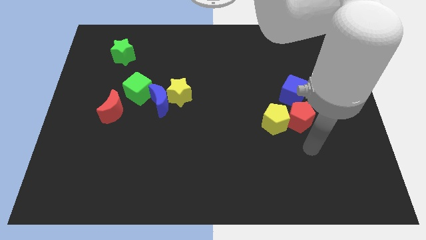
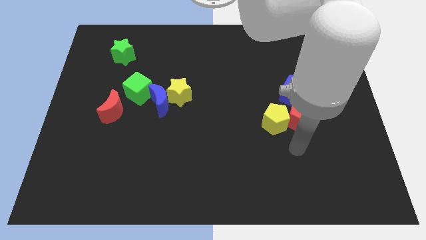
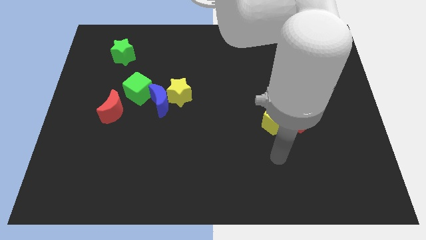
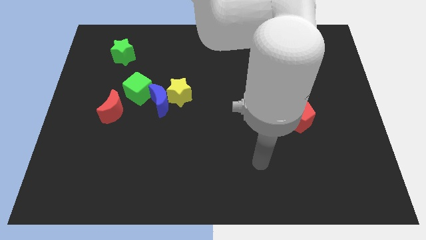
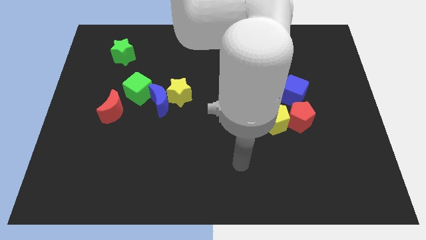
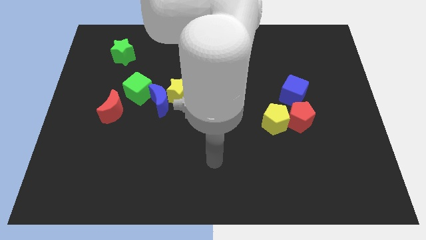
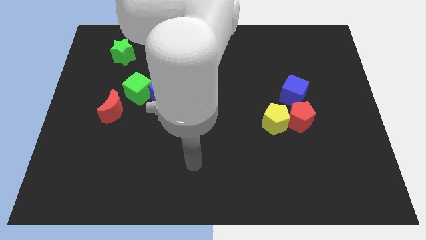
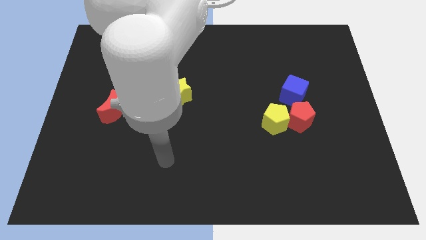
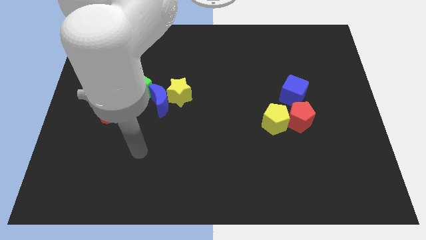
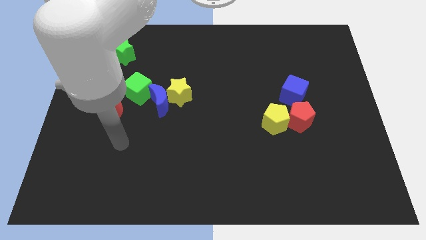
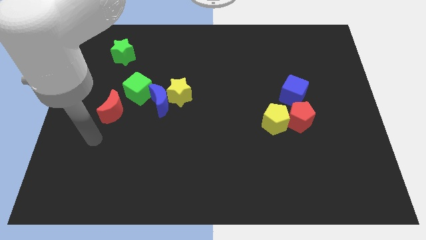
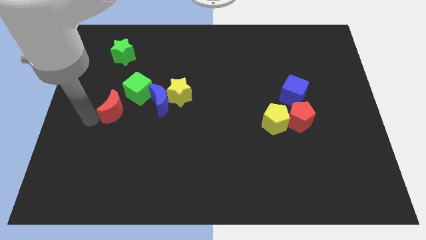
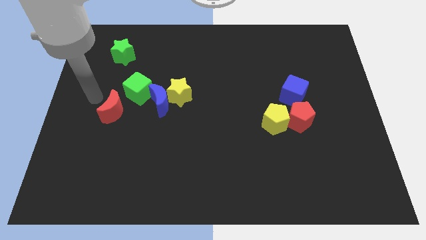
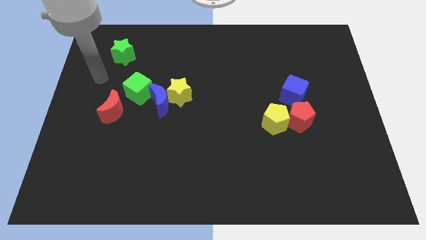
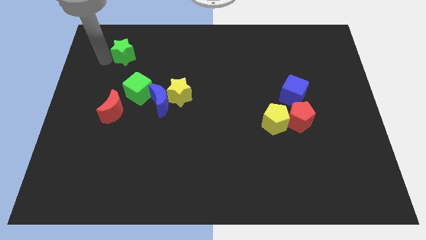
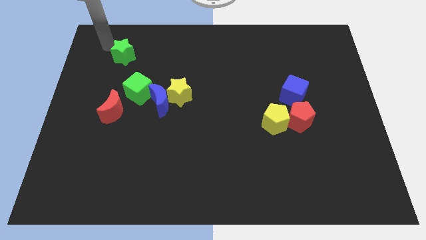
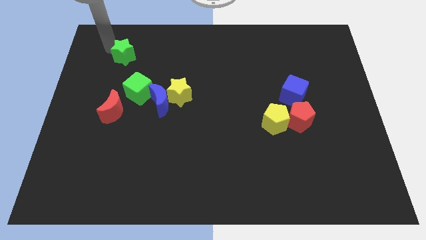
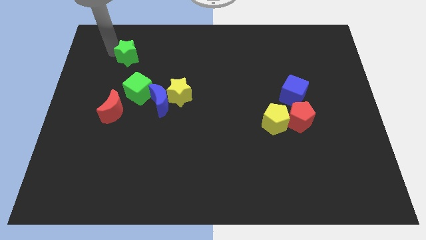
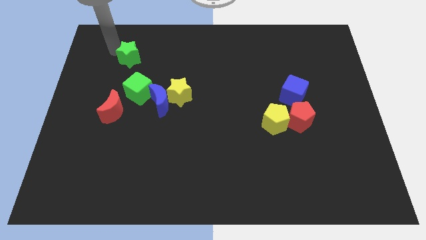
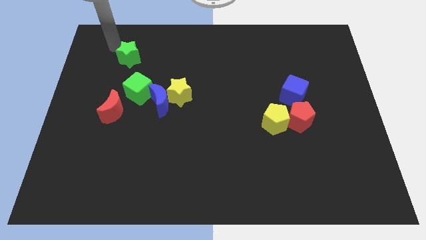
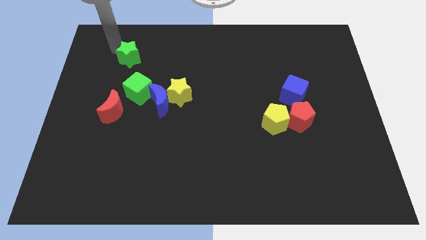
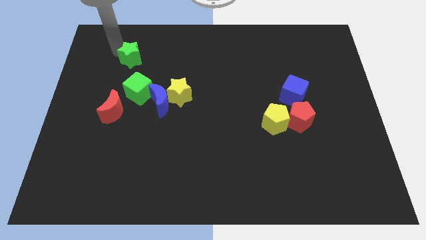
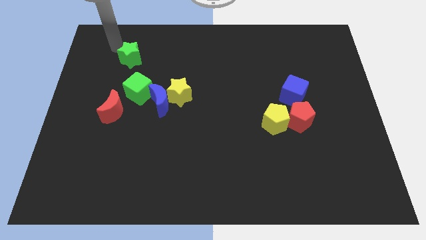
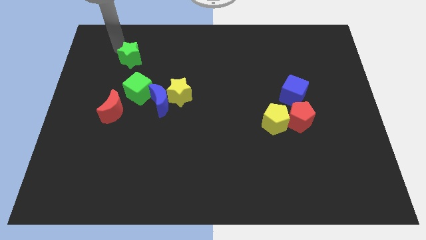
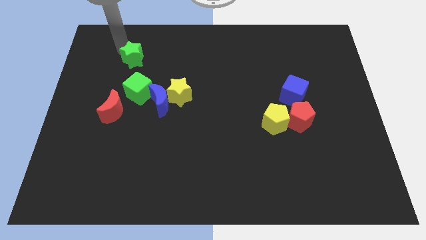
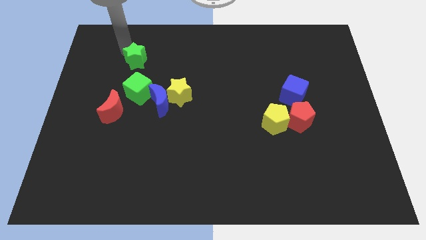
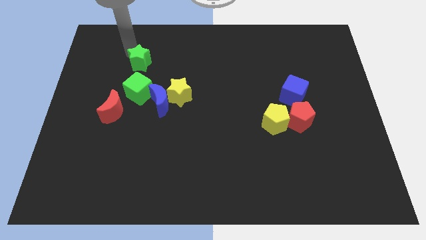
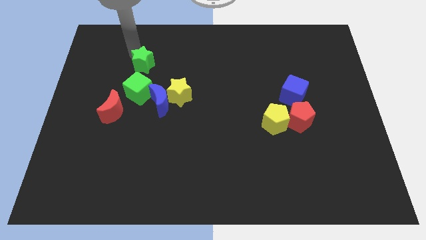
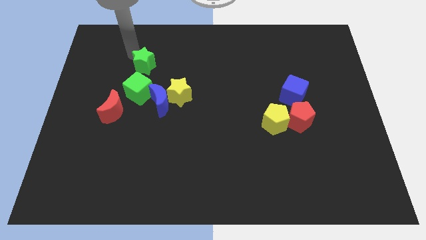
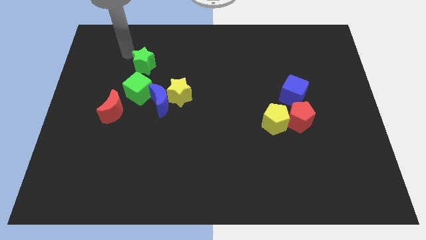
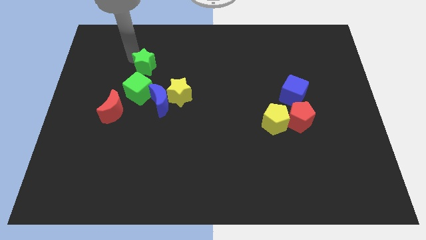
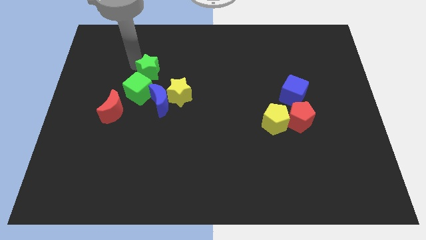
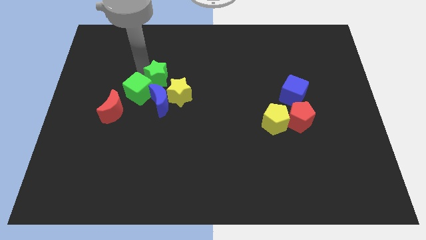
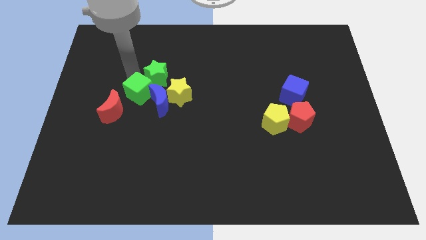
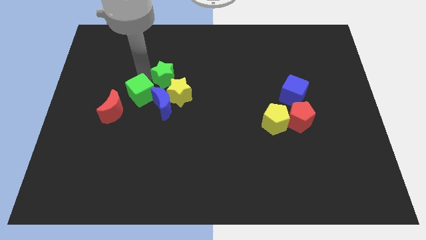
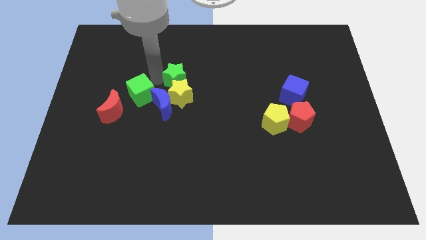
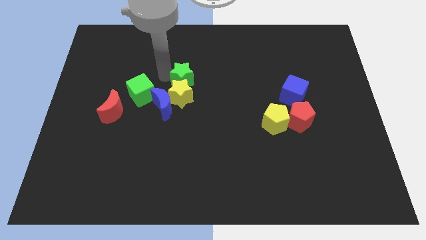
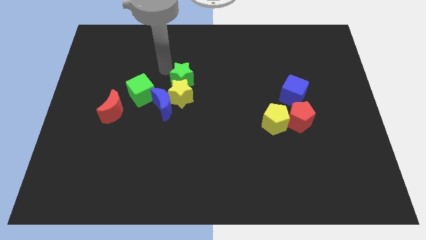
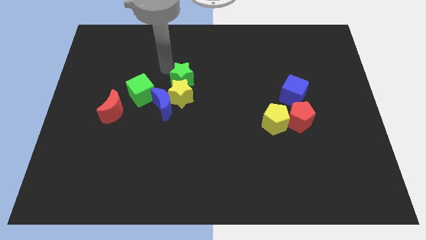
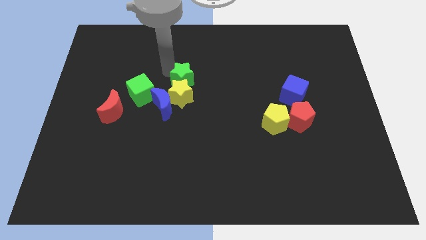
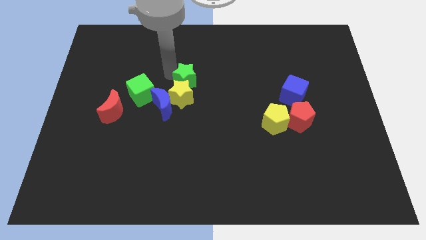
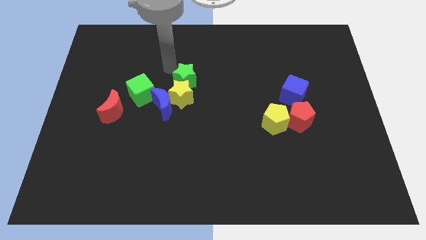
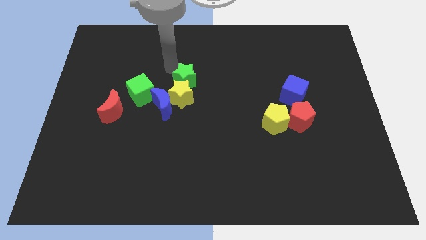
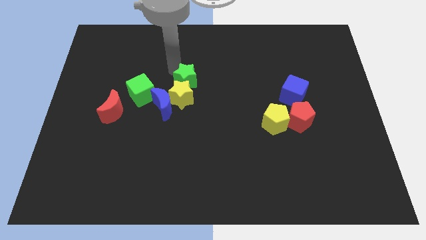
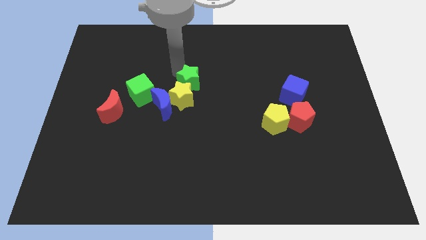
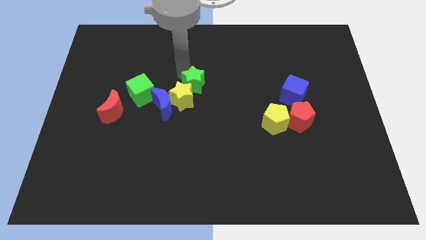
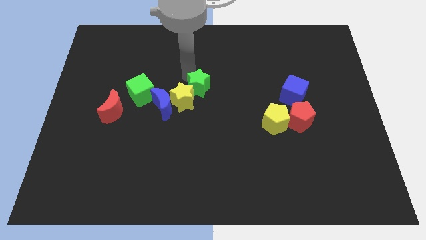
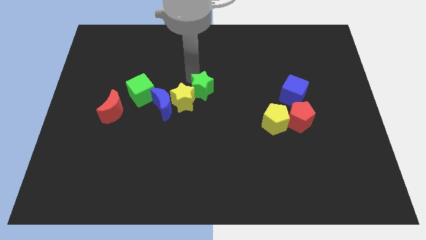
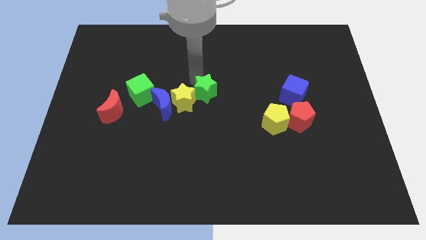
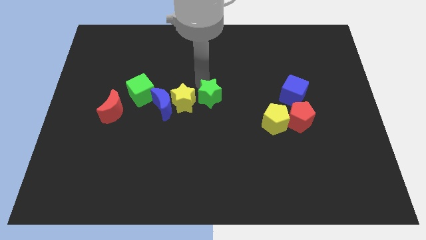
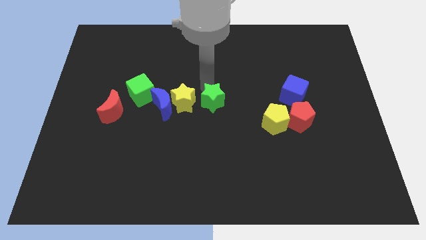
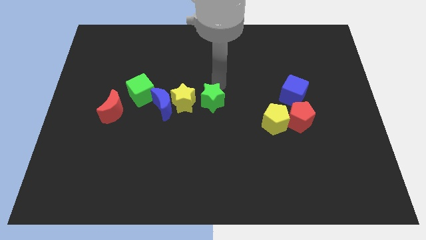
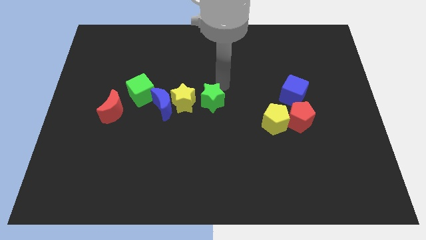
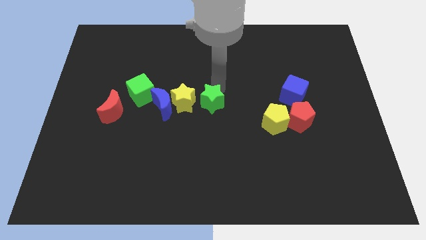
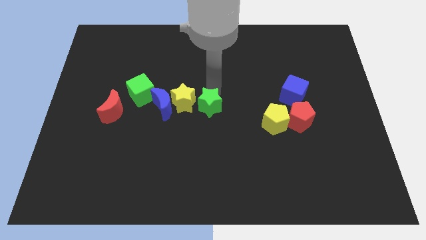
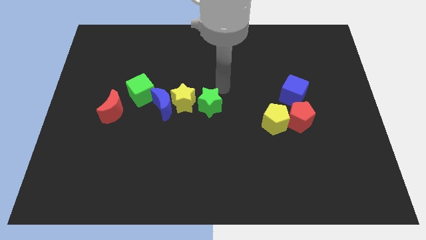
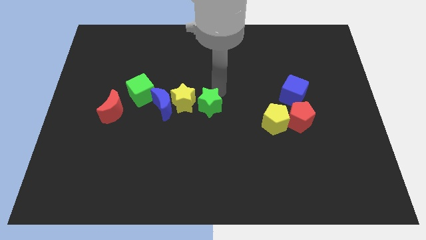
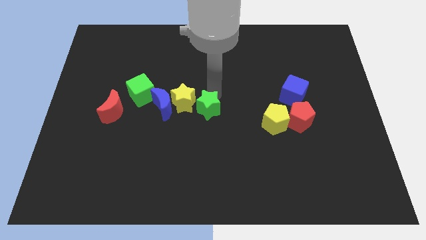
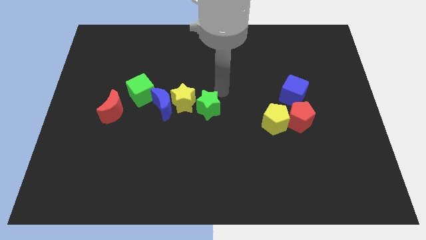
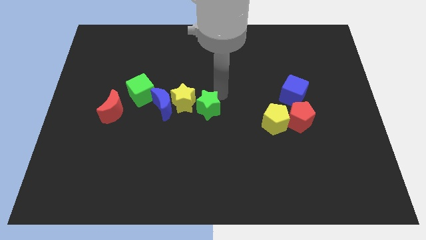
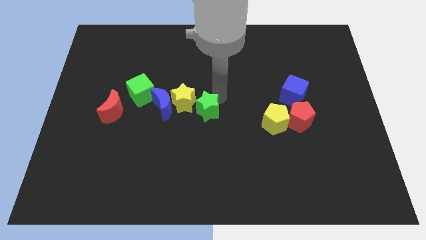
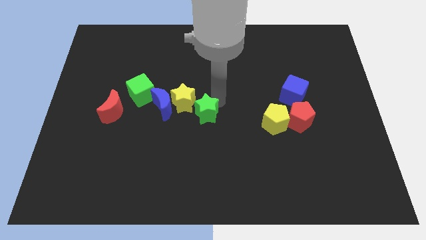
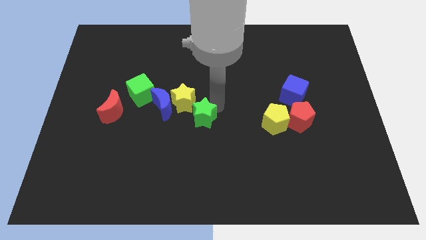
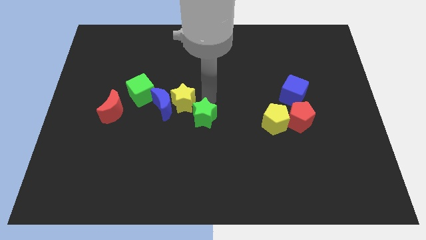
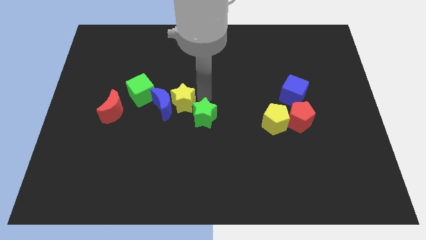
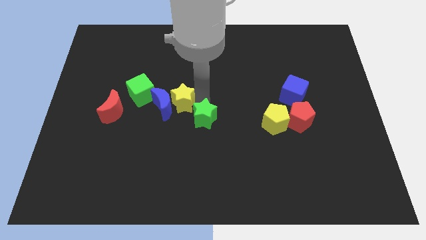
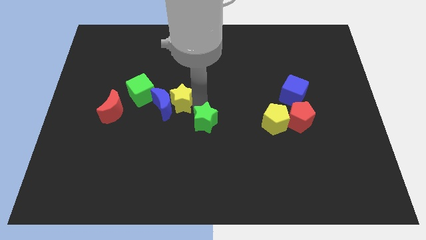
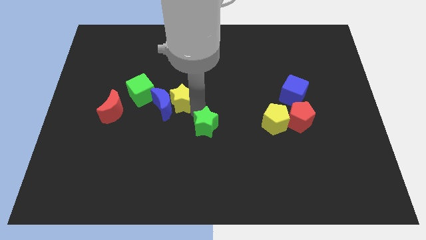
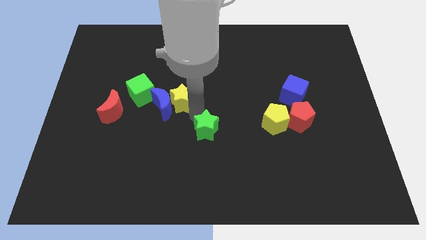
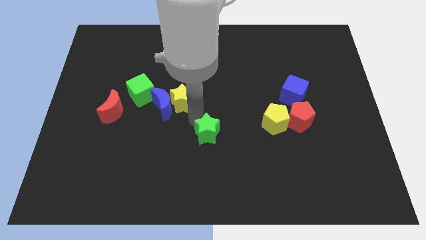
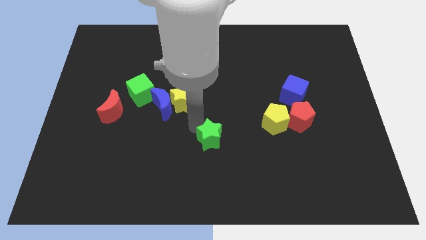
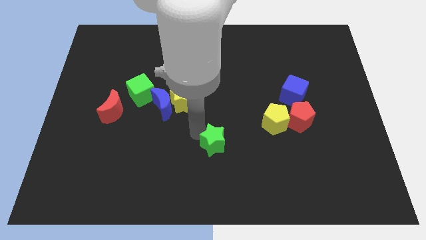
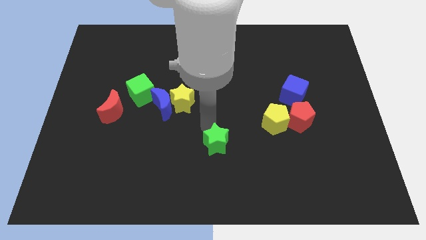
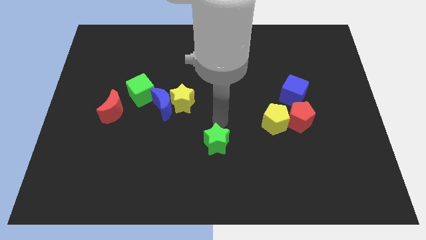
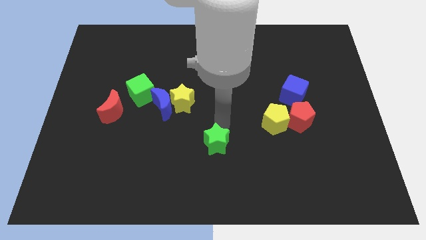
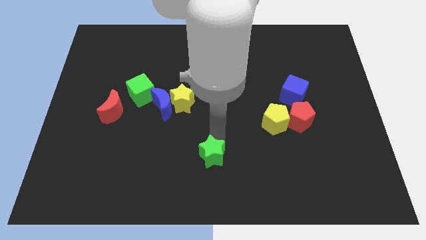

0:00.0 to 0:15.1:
put the green star to the bottom
